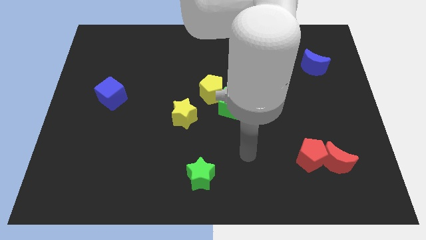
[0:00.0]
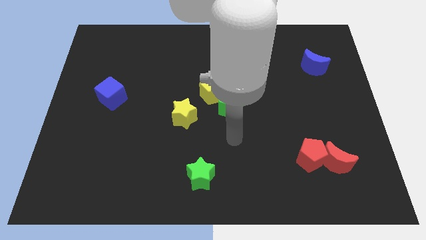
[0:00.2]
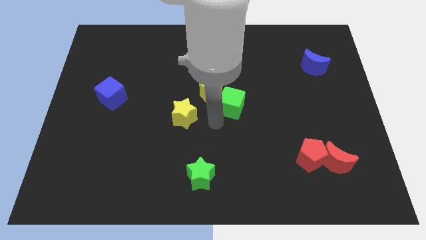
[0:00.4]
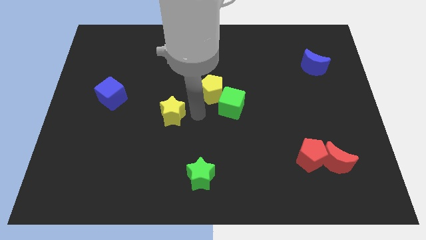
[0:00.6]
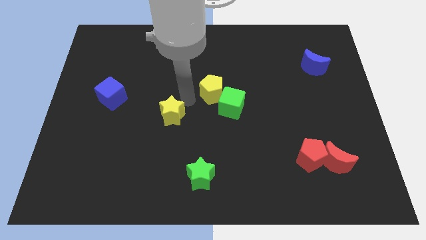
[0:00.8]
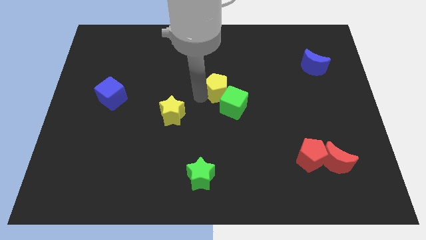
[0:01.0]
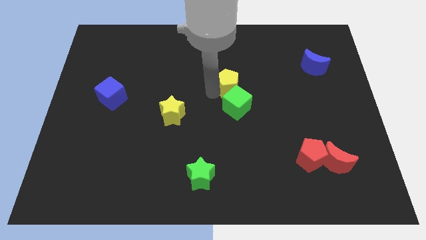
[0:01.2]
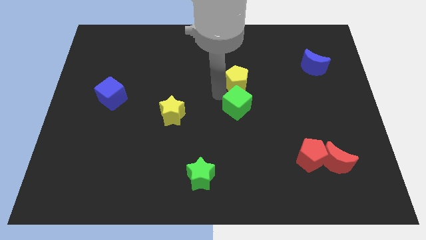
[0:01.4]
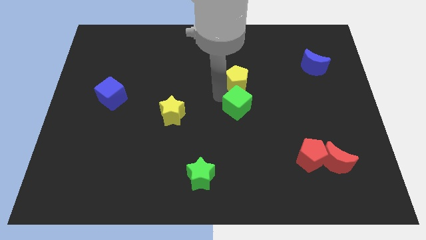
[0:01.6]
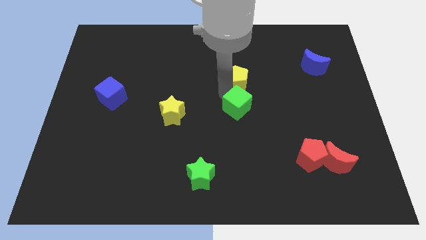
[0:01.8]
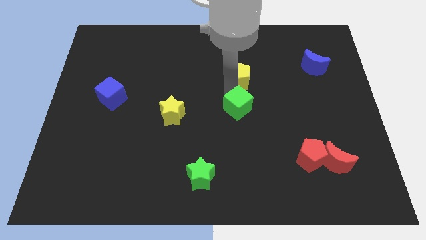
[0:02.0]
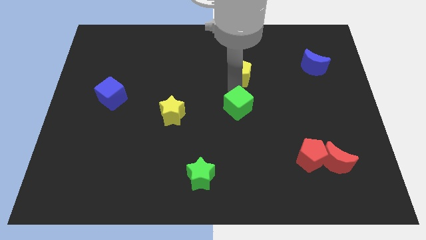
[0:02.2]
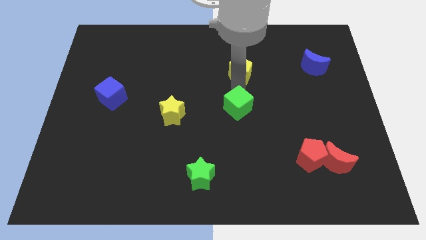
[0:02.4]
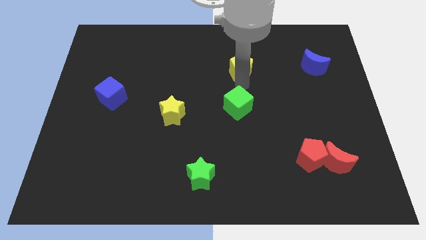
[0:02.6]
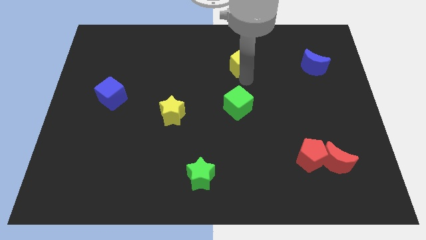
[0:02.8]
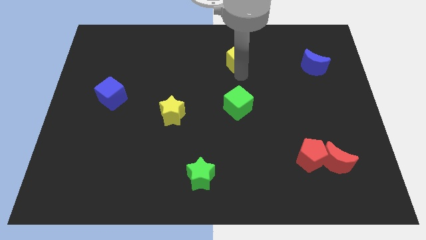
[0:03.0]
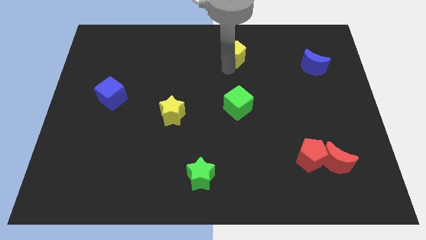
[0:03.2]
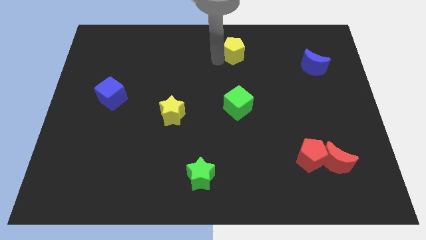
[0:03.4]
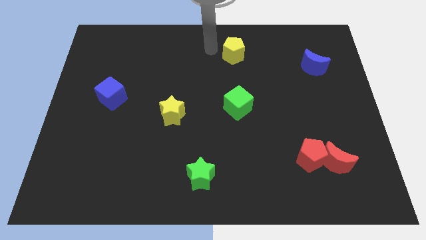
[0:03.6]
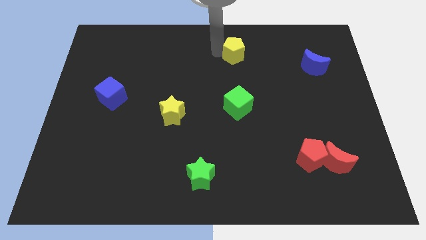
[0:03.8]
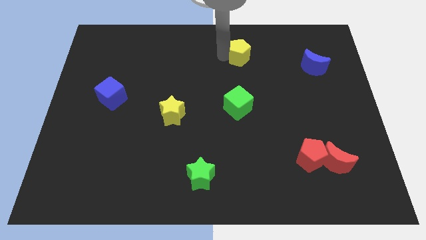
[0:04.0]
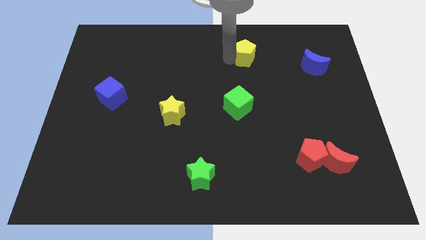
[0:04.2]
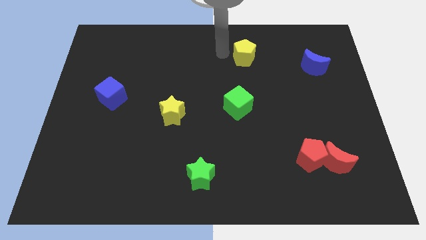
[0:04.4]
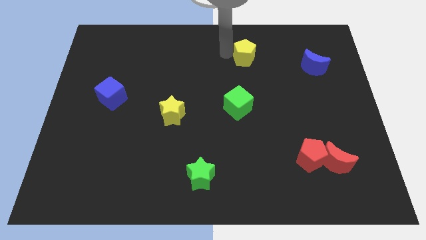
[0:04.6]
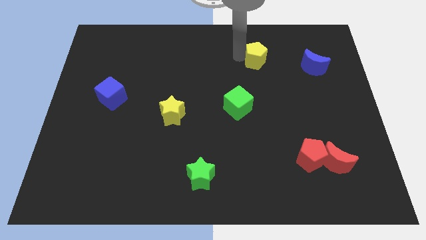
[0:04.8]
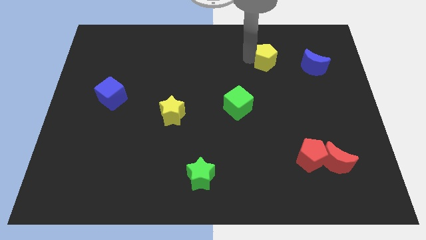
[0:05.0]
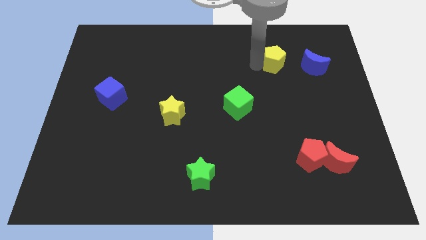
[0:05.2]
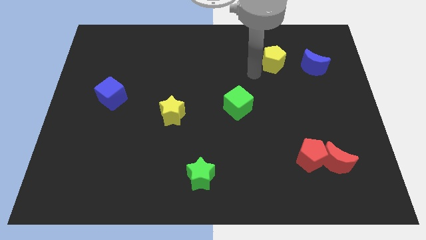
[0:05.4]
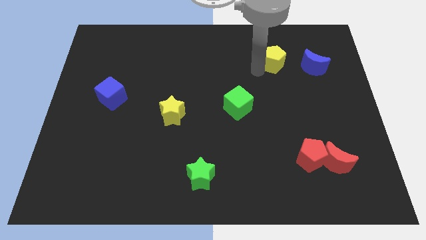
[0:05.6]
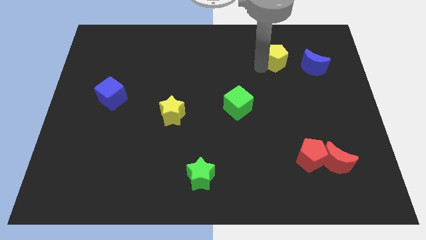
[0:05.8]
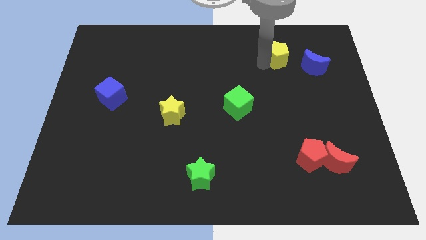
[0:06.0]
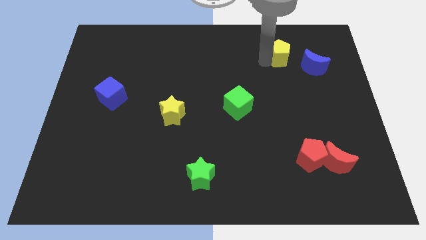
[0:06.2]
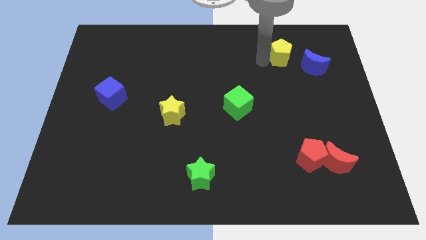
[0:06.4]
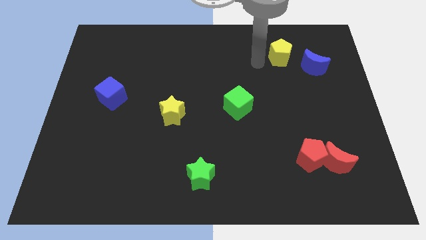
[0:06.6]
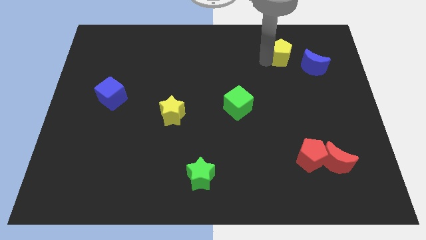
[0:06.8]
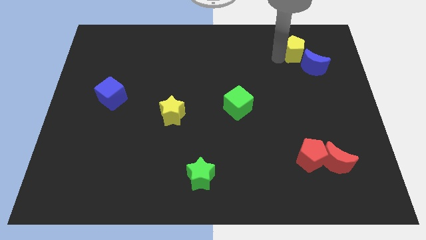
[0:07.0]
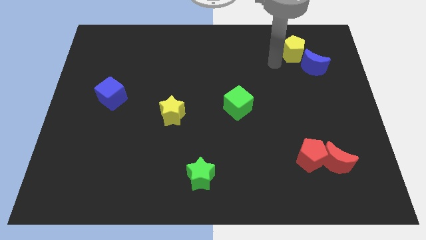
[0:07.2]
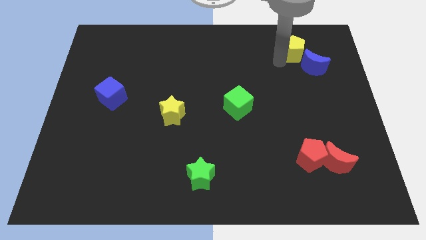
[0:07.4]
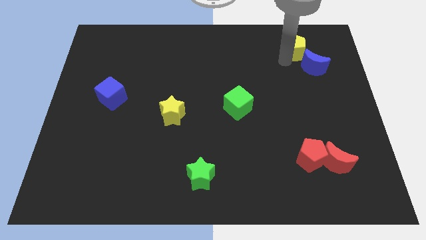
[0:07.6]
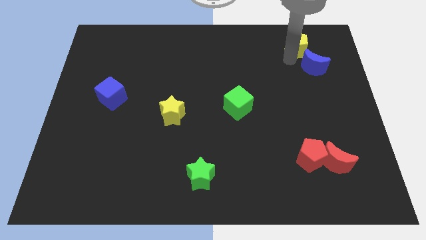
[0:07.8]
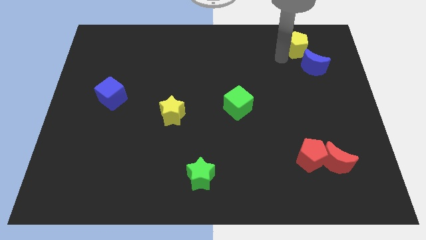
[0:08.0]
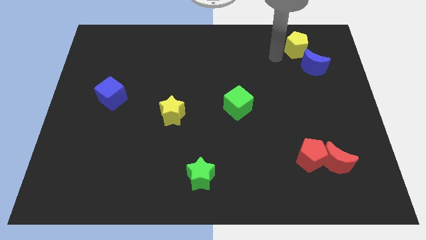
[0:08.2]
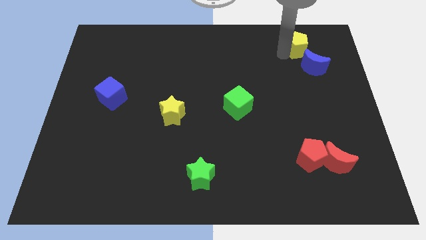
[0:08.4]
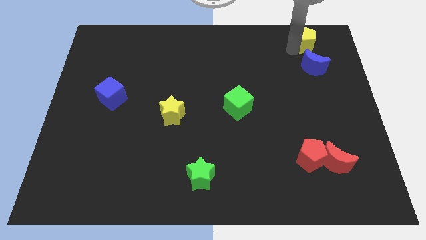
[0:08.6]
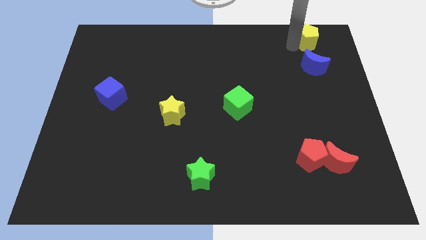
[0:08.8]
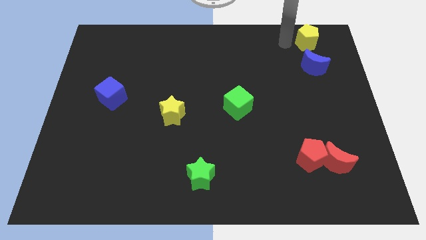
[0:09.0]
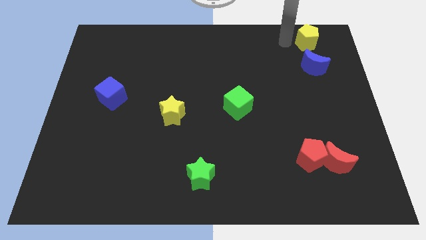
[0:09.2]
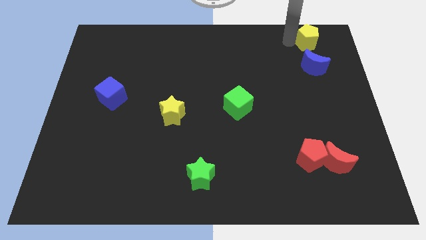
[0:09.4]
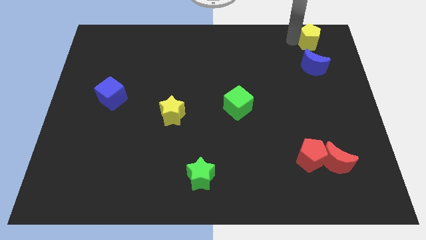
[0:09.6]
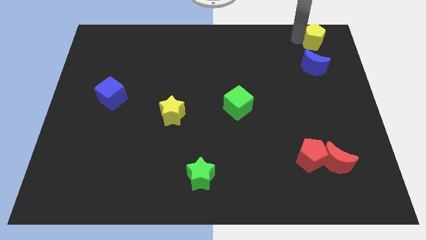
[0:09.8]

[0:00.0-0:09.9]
push the yellow pentagon to the upper right corner

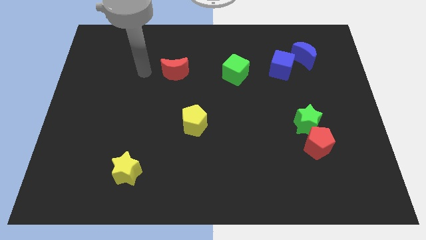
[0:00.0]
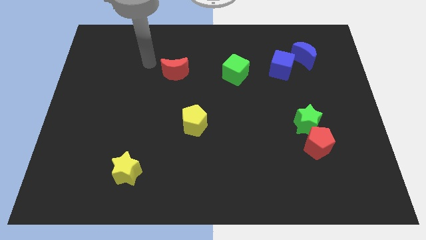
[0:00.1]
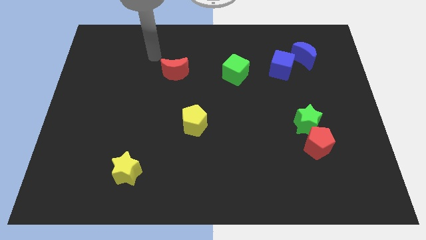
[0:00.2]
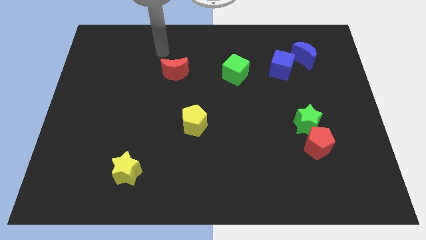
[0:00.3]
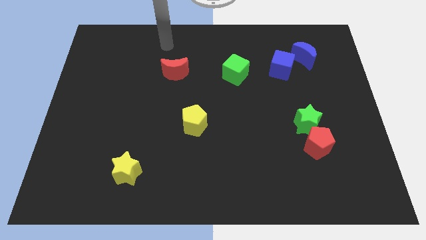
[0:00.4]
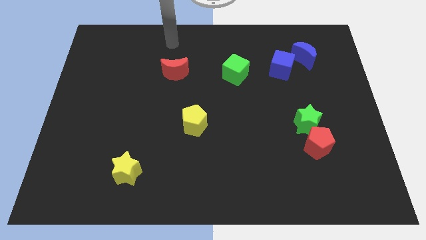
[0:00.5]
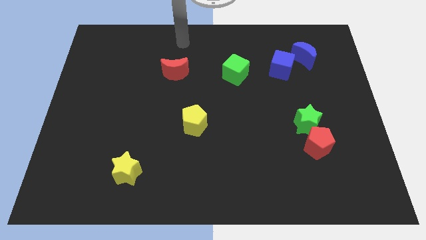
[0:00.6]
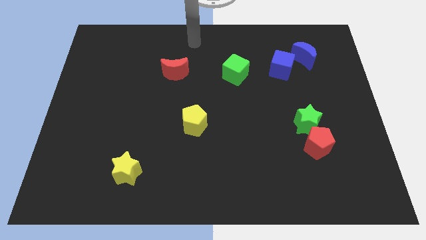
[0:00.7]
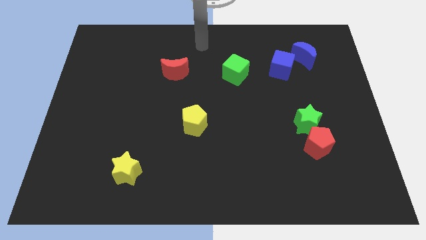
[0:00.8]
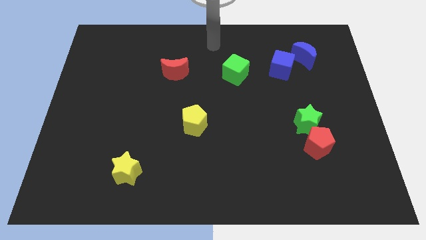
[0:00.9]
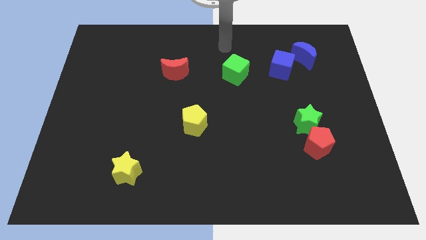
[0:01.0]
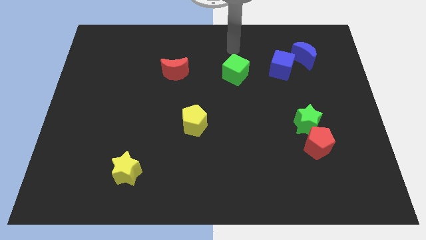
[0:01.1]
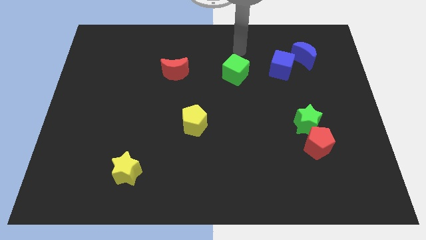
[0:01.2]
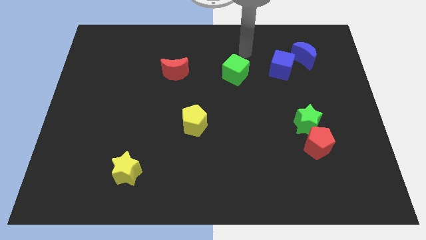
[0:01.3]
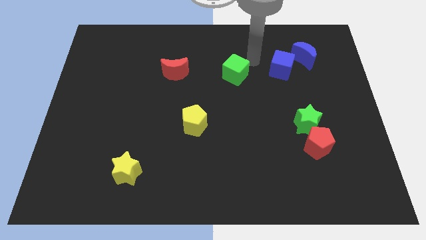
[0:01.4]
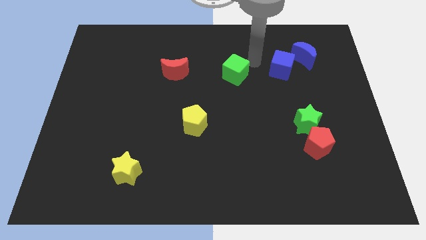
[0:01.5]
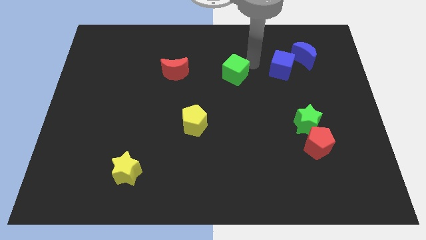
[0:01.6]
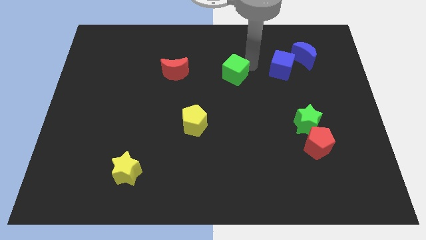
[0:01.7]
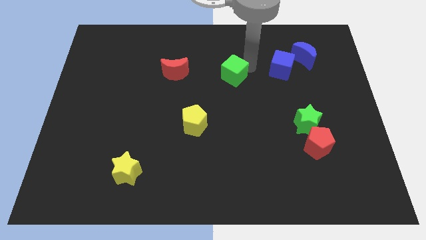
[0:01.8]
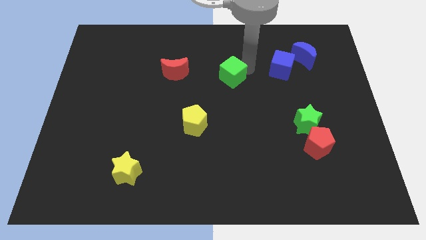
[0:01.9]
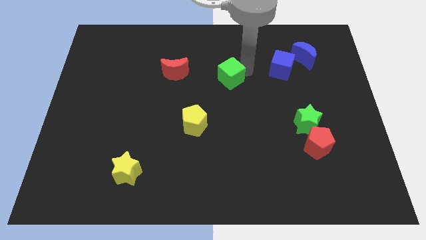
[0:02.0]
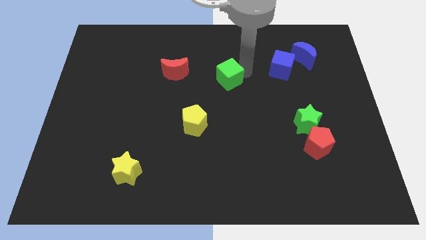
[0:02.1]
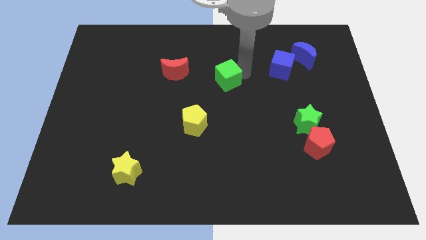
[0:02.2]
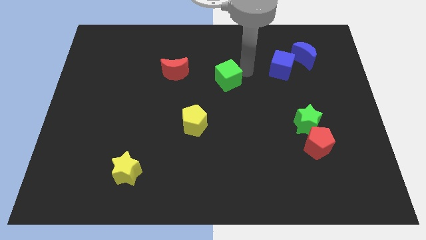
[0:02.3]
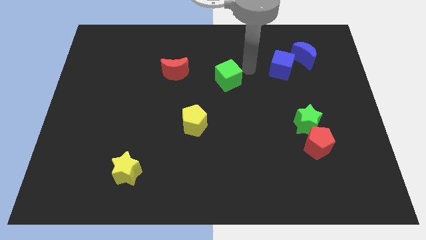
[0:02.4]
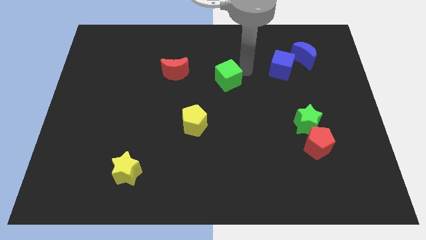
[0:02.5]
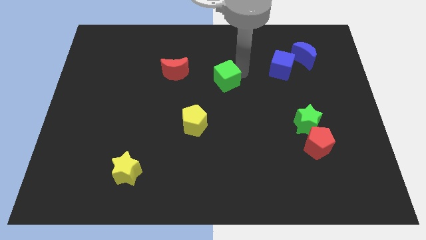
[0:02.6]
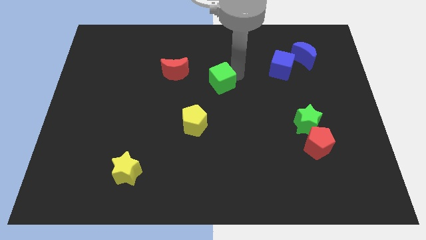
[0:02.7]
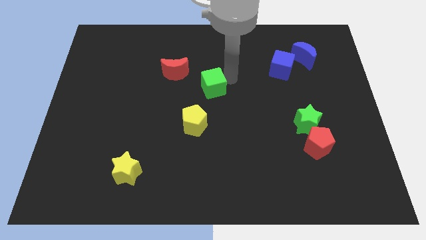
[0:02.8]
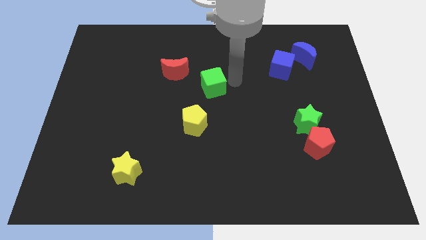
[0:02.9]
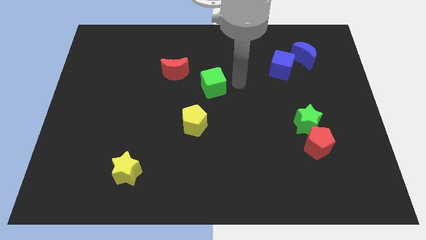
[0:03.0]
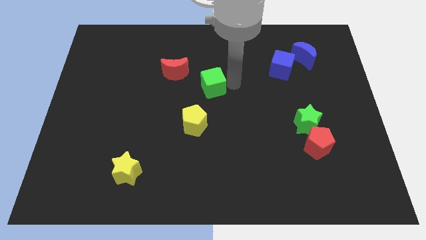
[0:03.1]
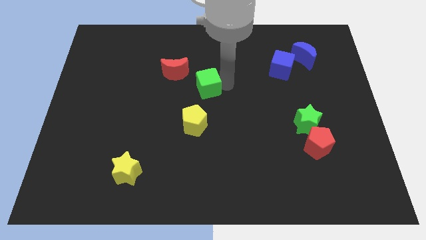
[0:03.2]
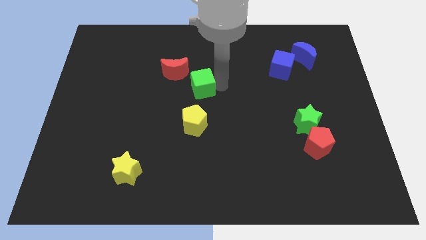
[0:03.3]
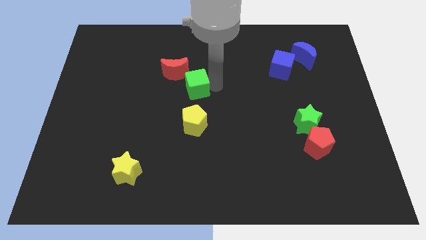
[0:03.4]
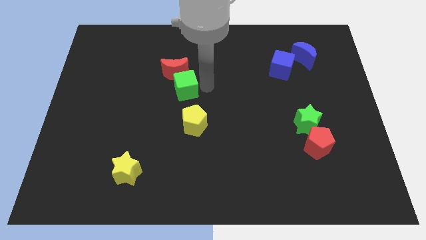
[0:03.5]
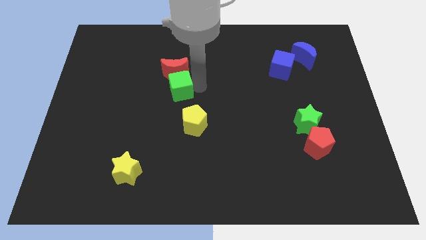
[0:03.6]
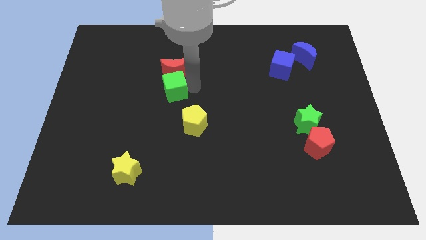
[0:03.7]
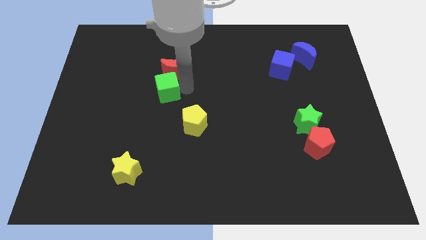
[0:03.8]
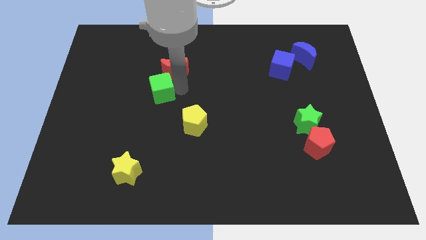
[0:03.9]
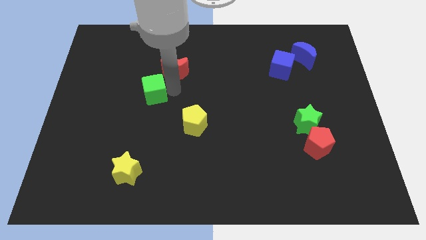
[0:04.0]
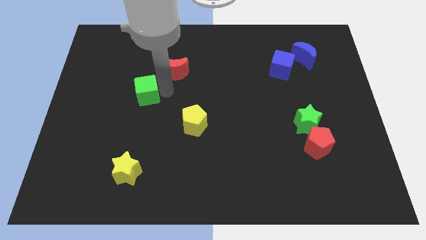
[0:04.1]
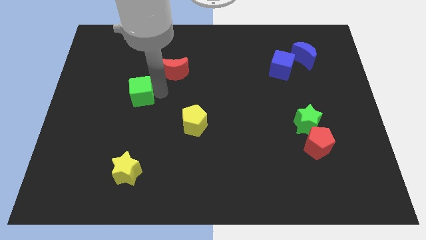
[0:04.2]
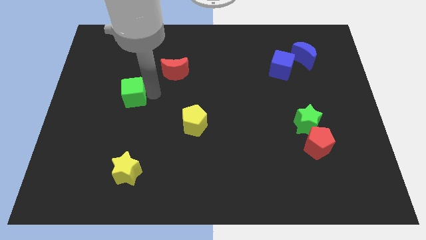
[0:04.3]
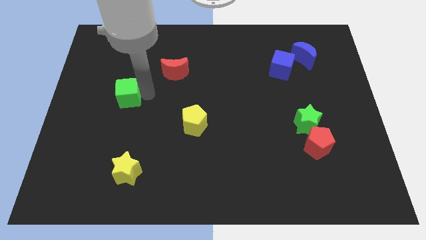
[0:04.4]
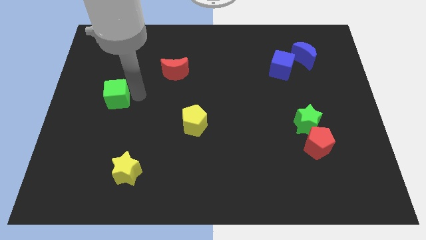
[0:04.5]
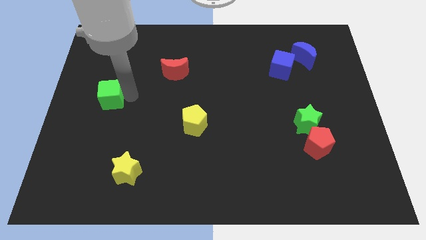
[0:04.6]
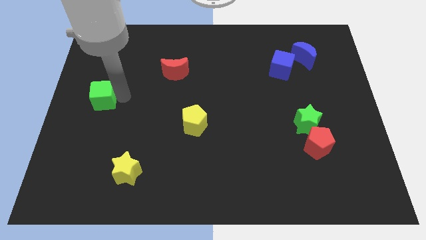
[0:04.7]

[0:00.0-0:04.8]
put the green cube to the left side
